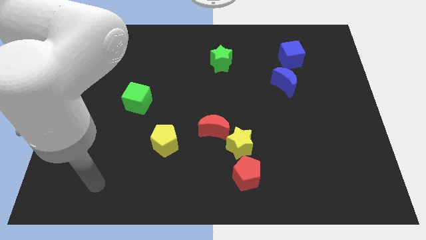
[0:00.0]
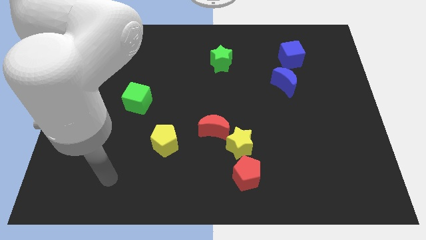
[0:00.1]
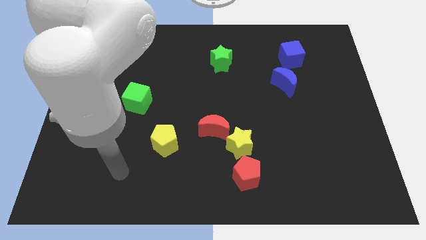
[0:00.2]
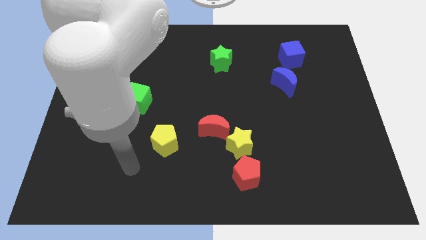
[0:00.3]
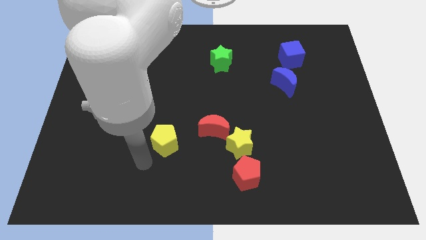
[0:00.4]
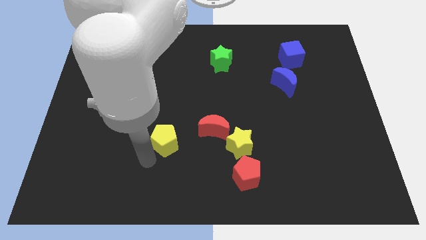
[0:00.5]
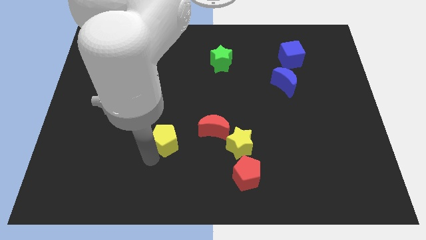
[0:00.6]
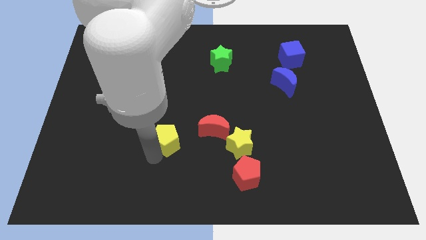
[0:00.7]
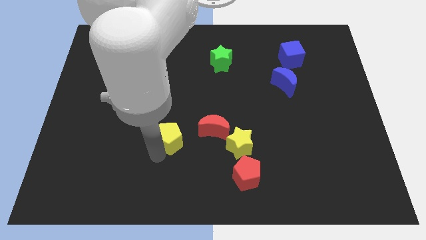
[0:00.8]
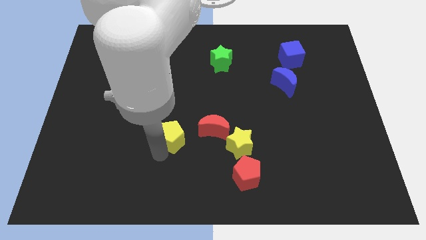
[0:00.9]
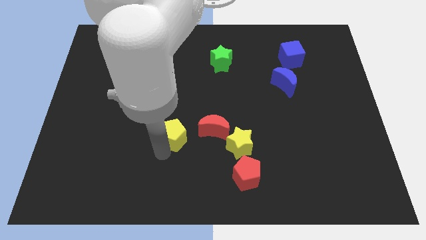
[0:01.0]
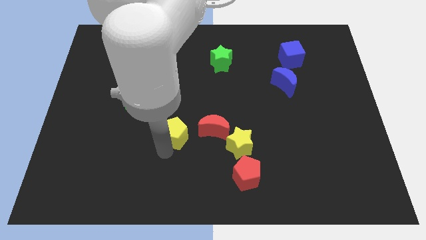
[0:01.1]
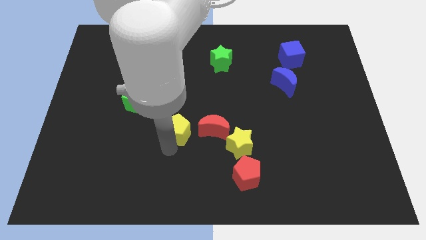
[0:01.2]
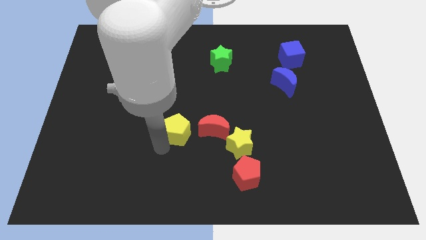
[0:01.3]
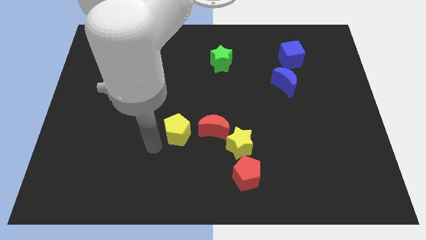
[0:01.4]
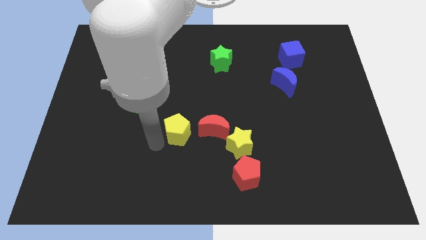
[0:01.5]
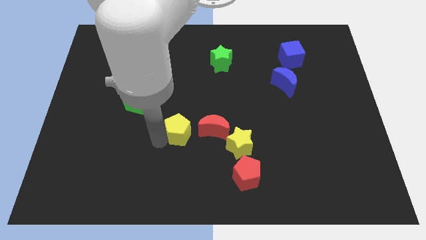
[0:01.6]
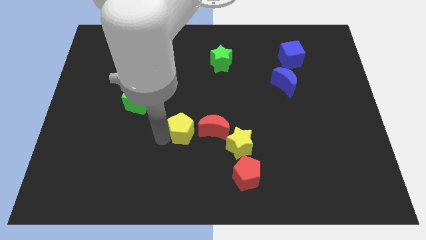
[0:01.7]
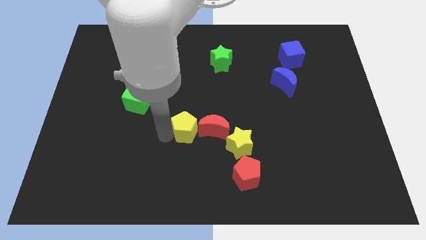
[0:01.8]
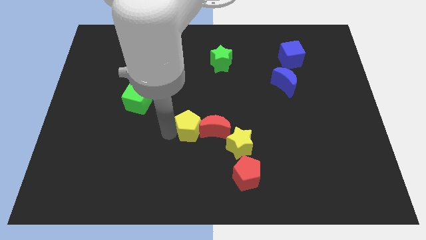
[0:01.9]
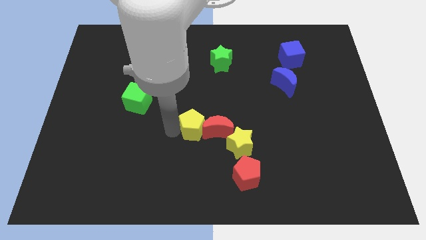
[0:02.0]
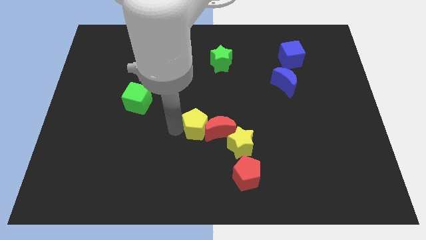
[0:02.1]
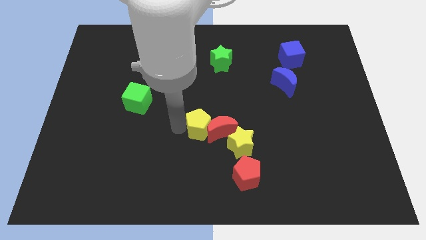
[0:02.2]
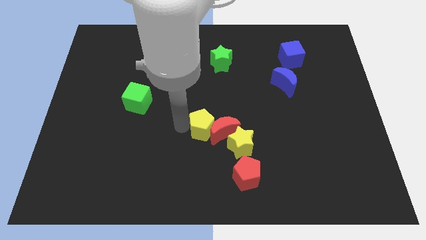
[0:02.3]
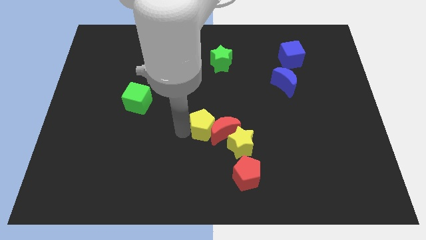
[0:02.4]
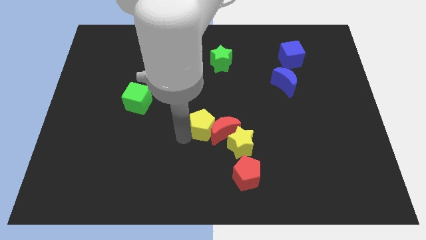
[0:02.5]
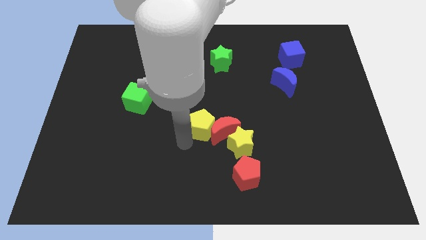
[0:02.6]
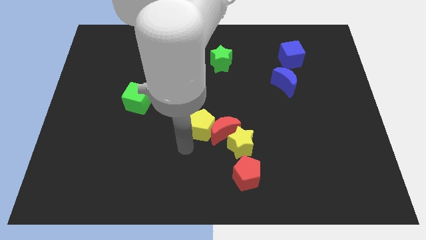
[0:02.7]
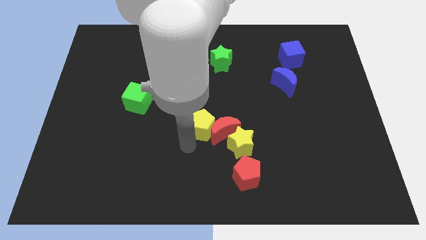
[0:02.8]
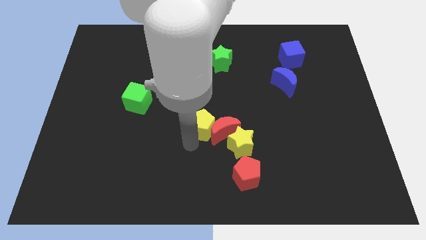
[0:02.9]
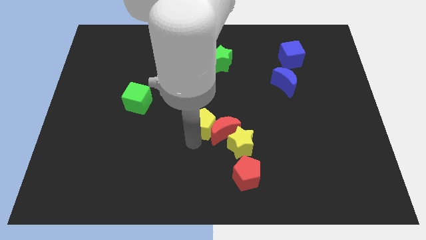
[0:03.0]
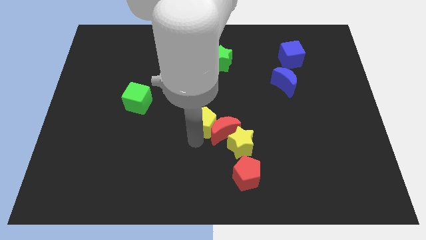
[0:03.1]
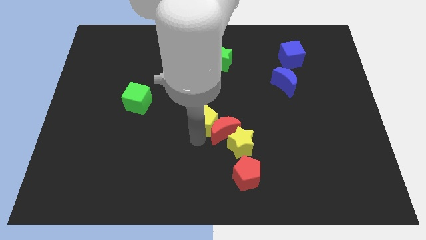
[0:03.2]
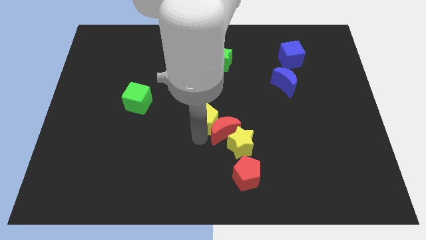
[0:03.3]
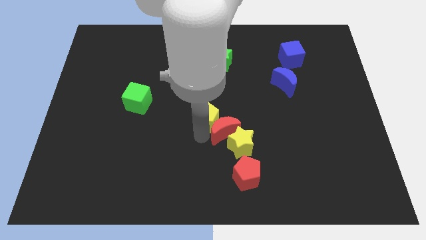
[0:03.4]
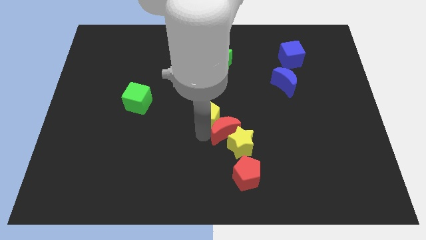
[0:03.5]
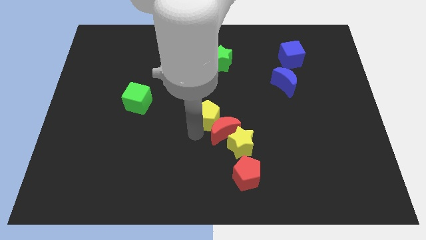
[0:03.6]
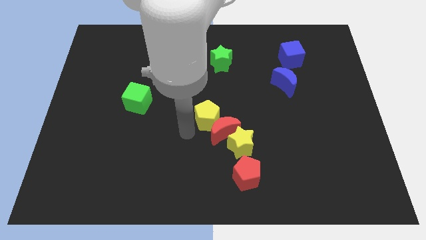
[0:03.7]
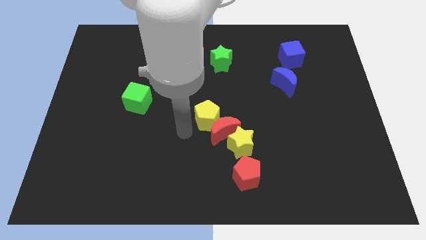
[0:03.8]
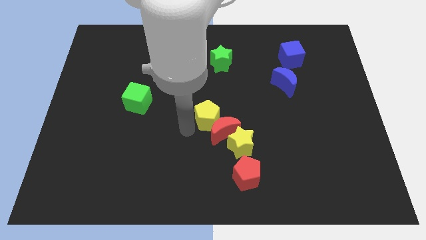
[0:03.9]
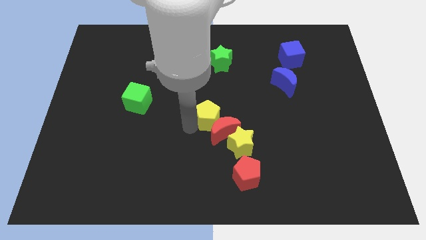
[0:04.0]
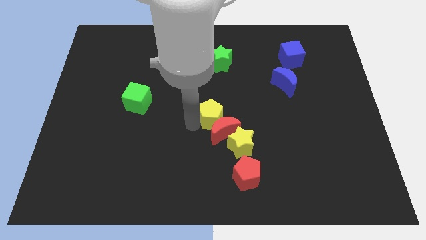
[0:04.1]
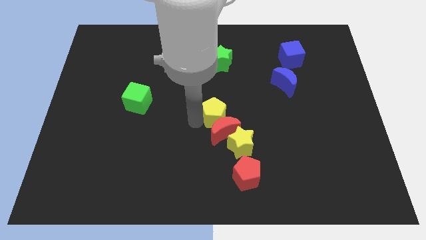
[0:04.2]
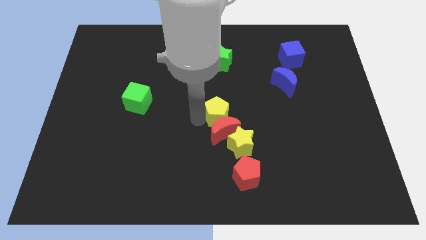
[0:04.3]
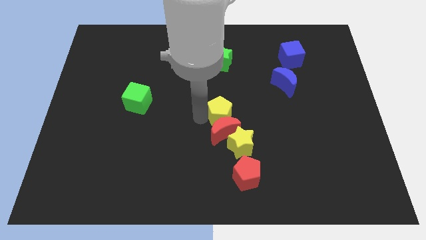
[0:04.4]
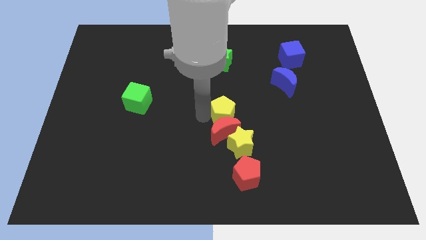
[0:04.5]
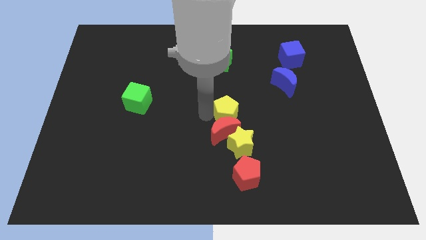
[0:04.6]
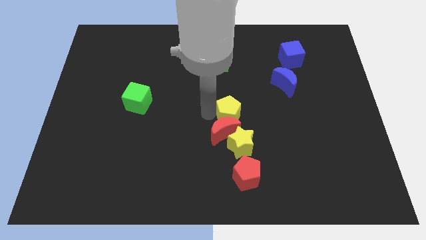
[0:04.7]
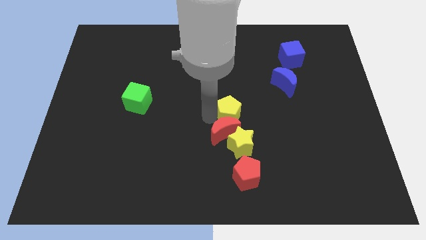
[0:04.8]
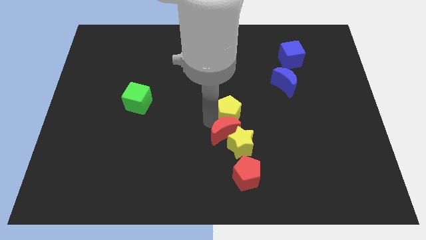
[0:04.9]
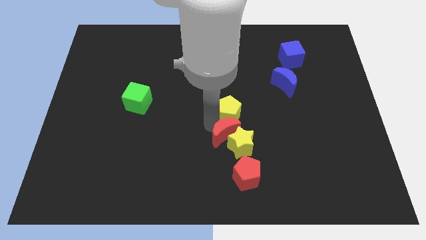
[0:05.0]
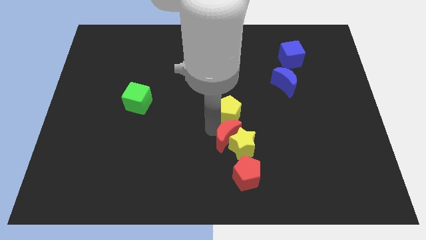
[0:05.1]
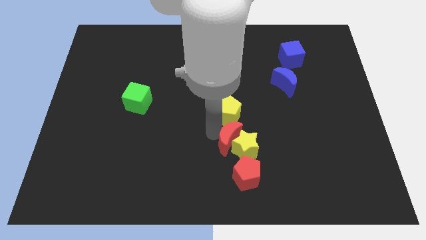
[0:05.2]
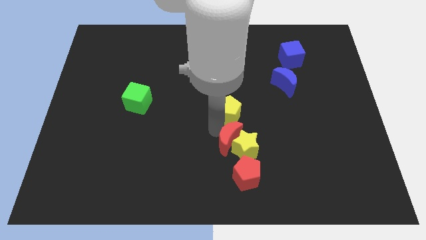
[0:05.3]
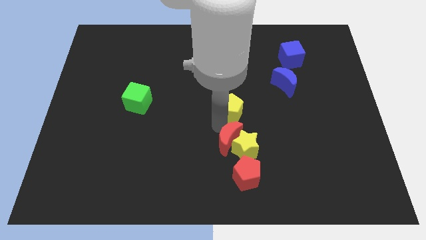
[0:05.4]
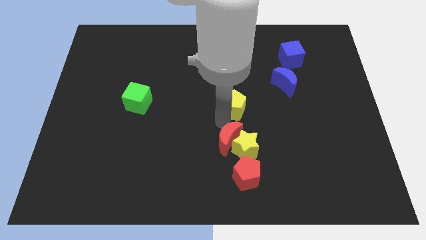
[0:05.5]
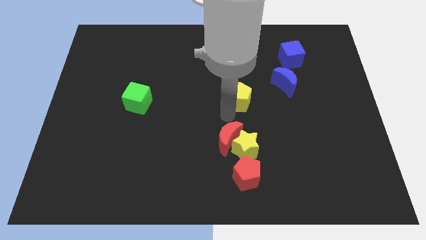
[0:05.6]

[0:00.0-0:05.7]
slide the yellow pentagon up and then to the right

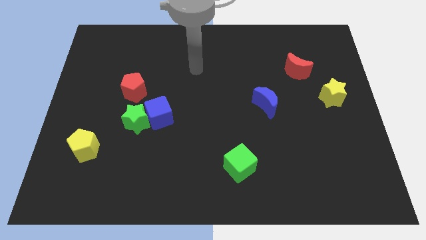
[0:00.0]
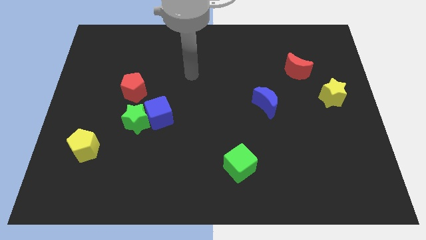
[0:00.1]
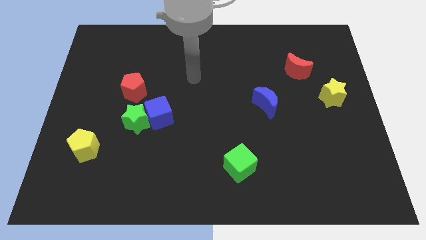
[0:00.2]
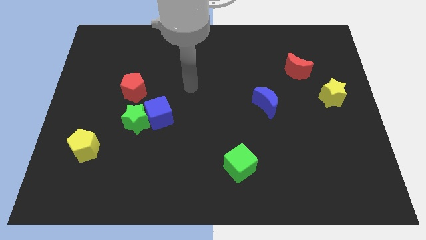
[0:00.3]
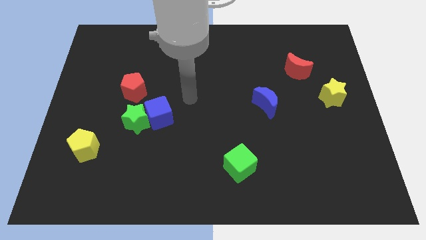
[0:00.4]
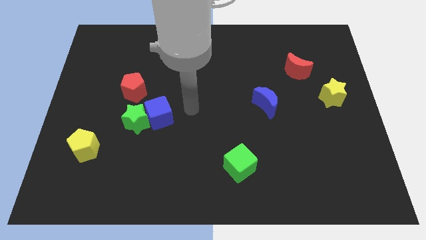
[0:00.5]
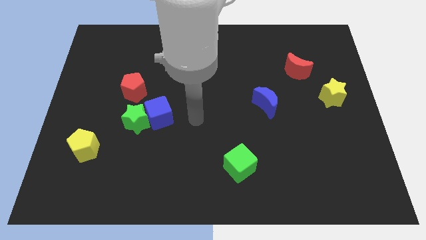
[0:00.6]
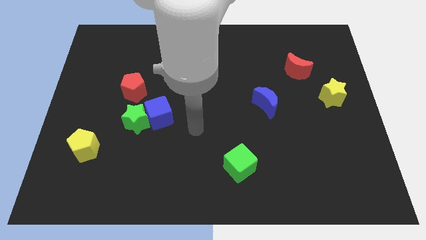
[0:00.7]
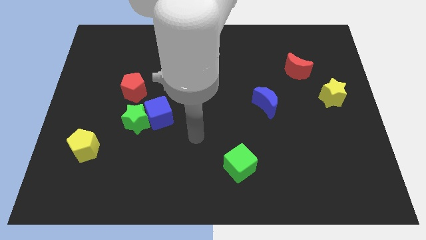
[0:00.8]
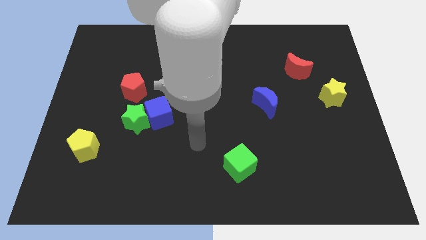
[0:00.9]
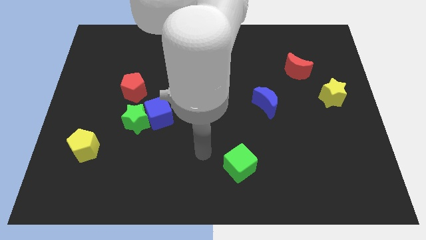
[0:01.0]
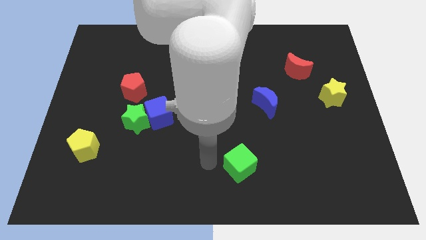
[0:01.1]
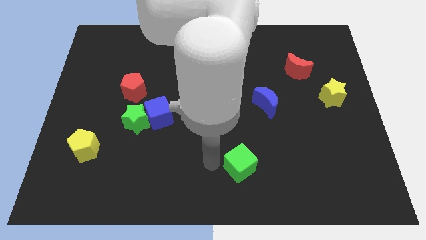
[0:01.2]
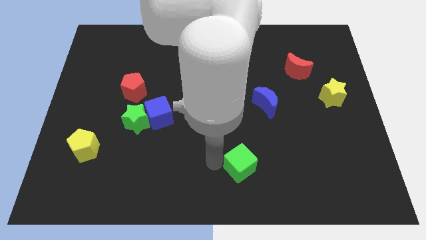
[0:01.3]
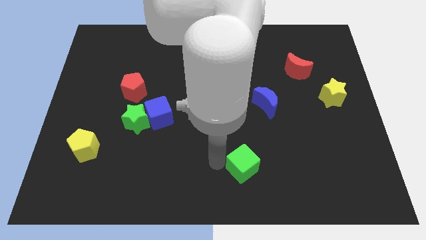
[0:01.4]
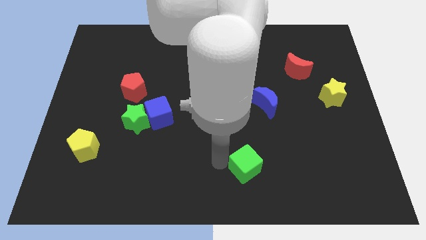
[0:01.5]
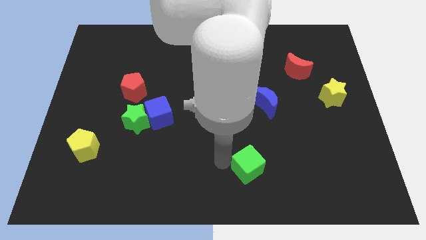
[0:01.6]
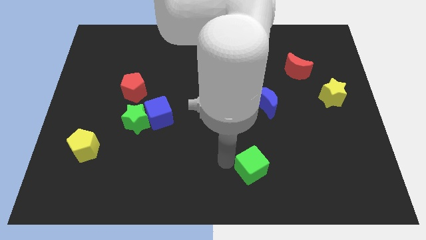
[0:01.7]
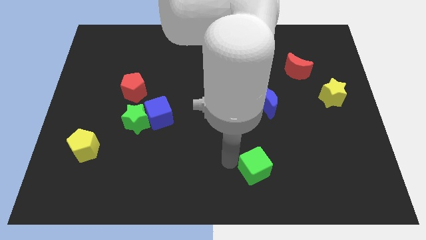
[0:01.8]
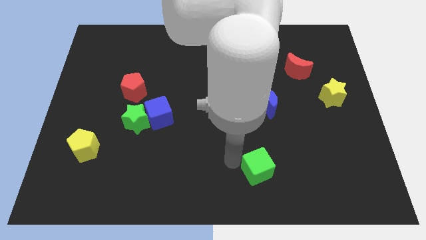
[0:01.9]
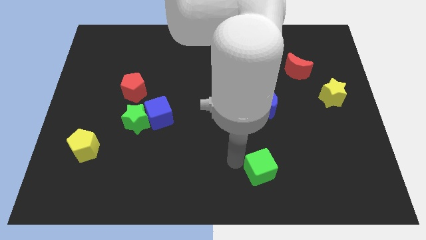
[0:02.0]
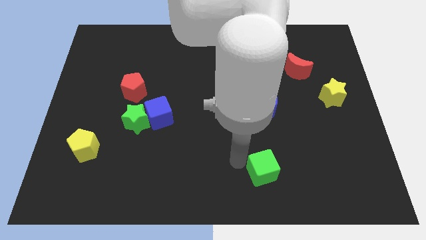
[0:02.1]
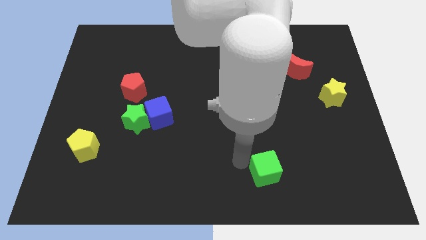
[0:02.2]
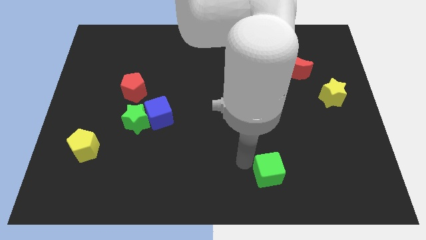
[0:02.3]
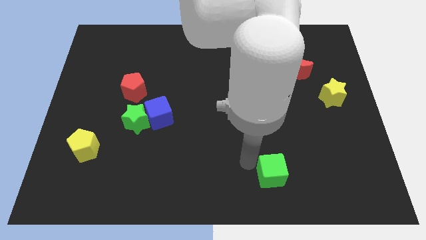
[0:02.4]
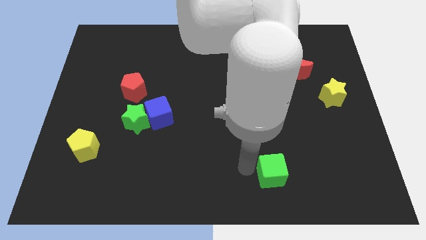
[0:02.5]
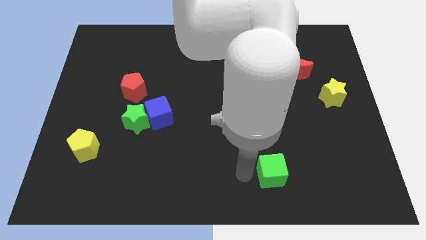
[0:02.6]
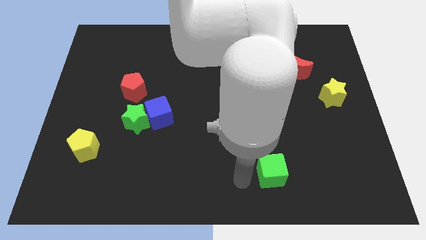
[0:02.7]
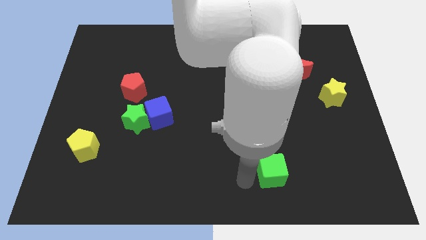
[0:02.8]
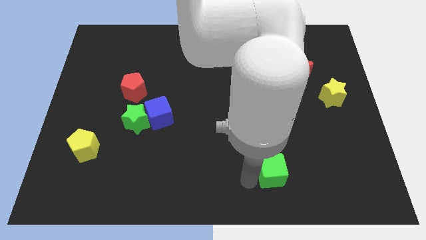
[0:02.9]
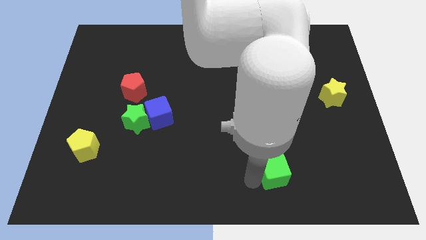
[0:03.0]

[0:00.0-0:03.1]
push the green cube a bit to the right
